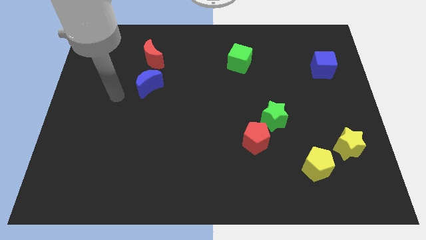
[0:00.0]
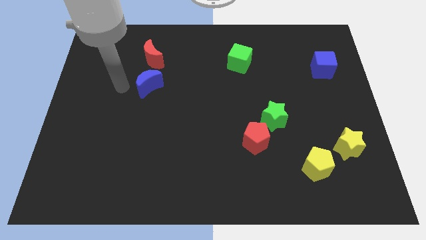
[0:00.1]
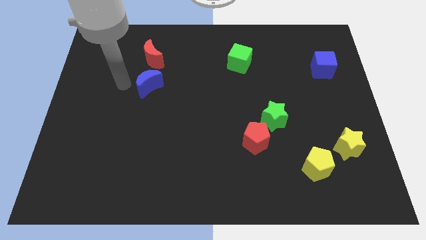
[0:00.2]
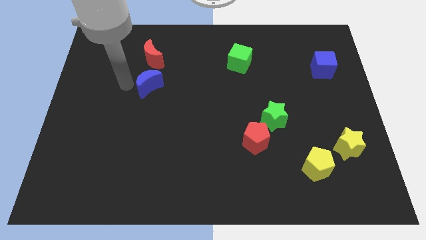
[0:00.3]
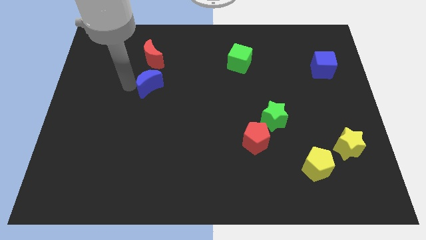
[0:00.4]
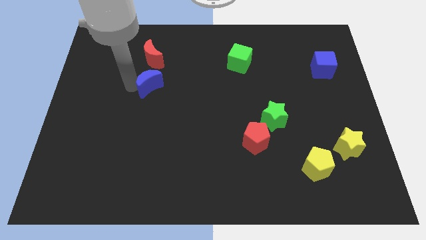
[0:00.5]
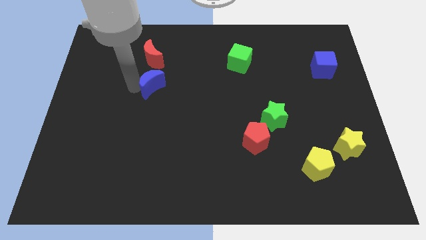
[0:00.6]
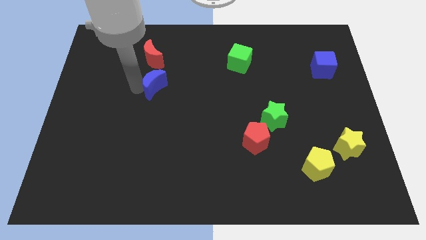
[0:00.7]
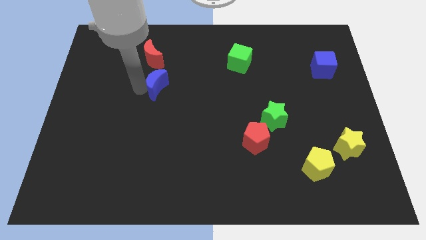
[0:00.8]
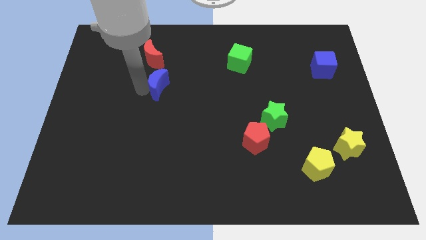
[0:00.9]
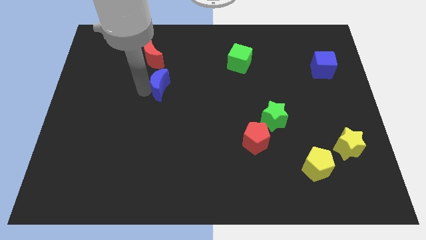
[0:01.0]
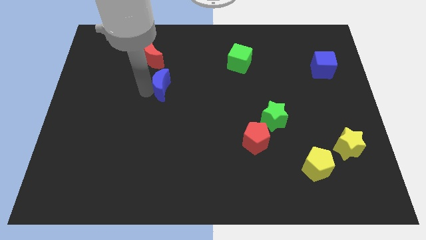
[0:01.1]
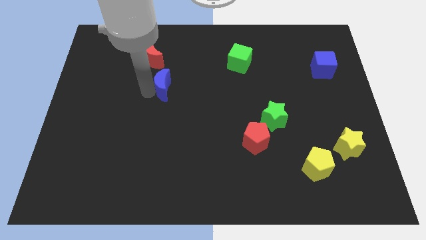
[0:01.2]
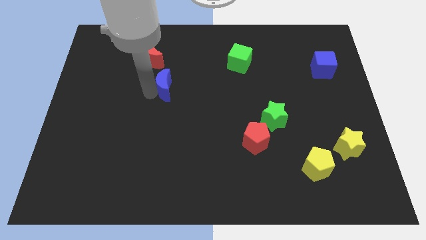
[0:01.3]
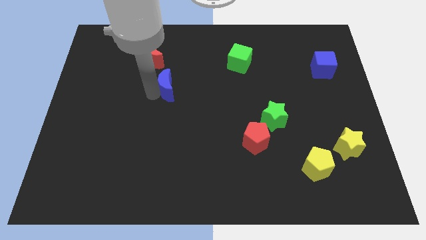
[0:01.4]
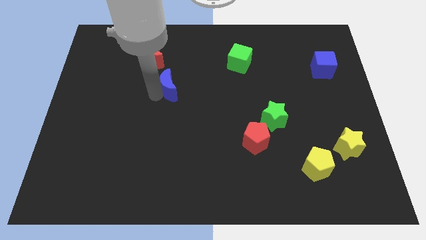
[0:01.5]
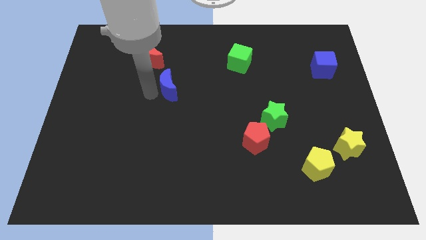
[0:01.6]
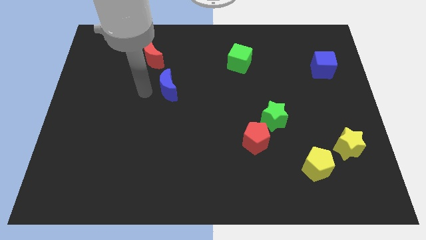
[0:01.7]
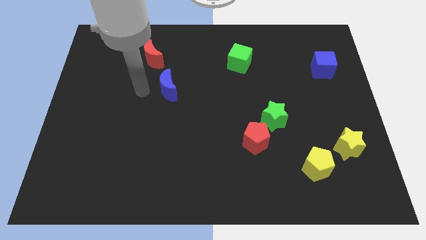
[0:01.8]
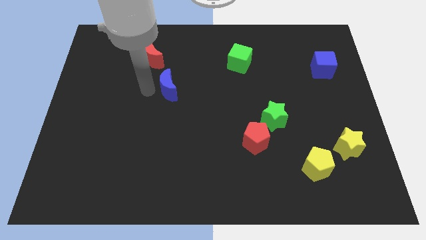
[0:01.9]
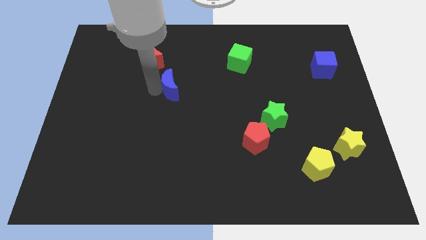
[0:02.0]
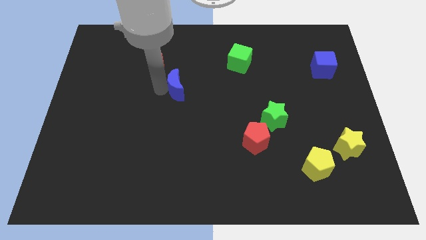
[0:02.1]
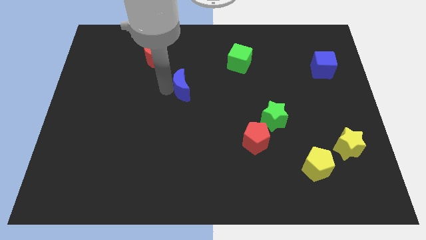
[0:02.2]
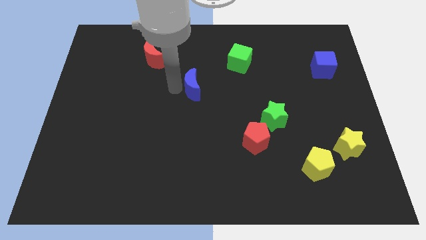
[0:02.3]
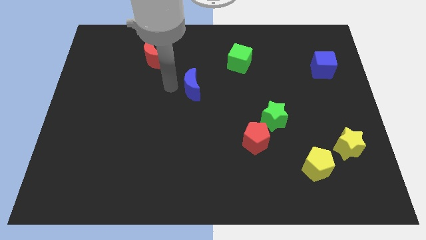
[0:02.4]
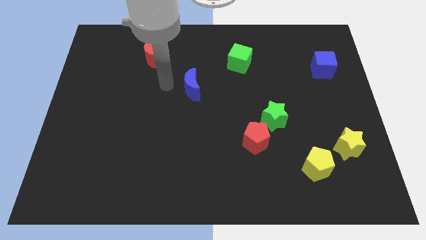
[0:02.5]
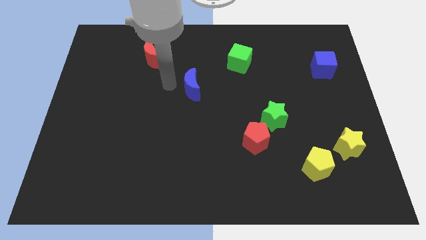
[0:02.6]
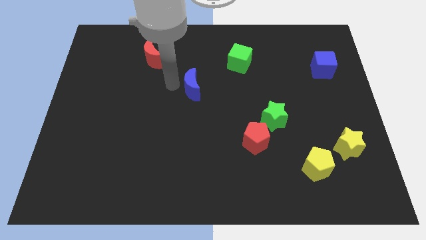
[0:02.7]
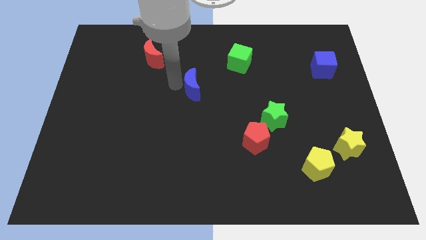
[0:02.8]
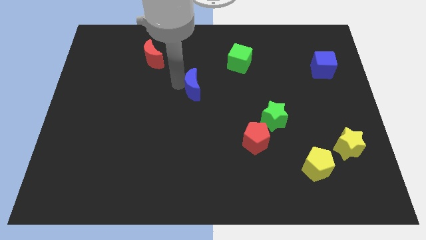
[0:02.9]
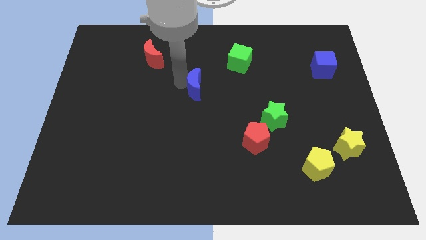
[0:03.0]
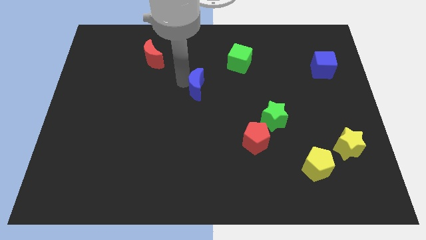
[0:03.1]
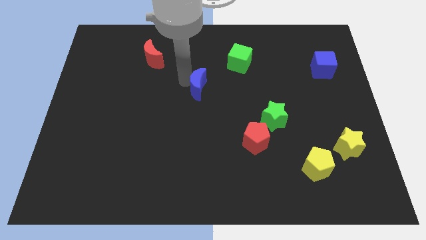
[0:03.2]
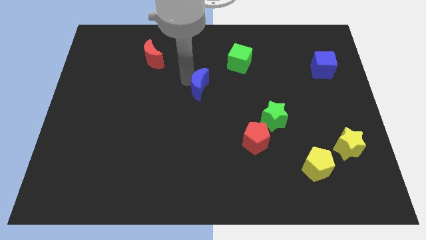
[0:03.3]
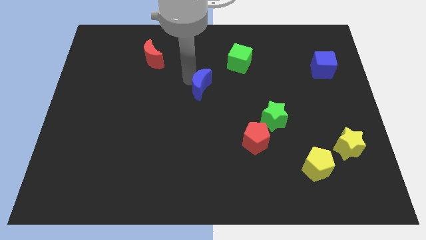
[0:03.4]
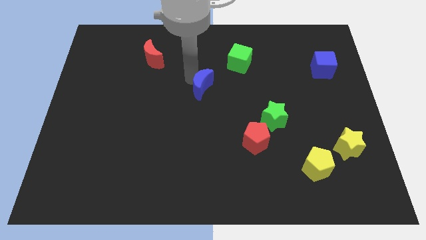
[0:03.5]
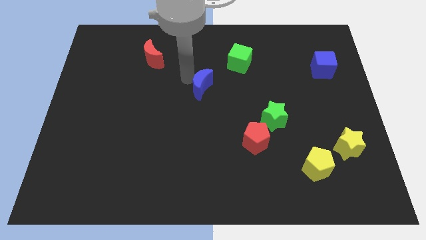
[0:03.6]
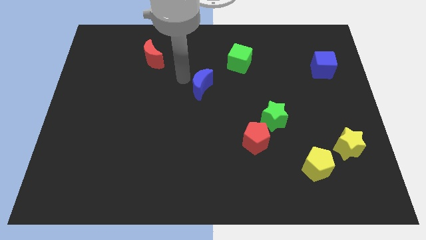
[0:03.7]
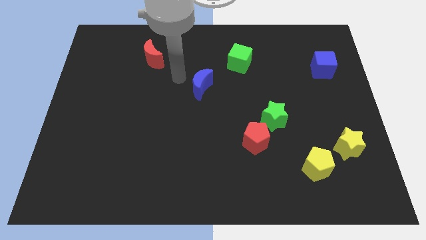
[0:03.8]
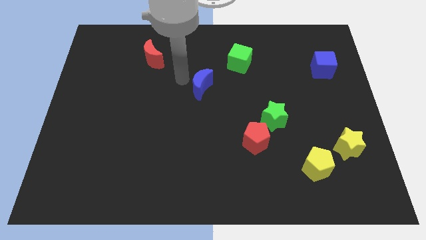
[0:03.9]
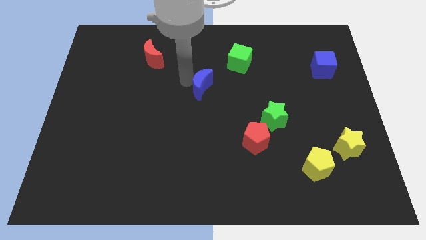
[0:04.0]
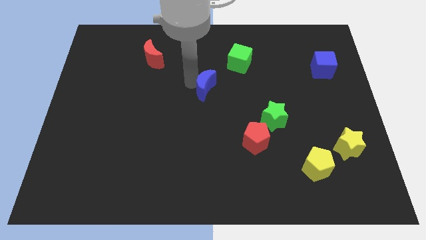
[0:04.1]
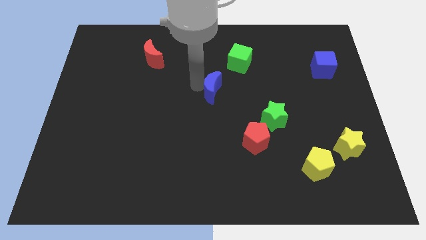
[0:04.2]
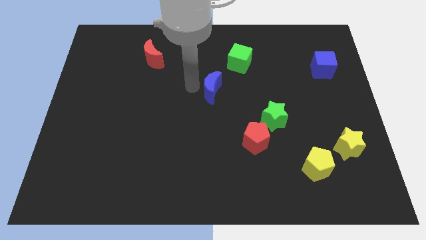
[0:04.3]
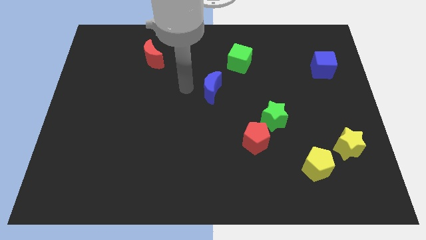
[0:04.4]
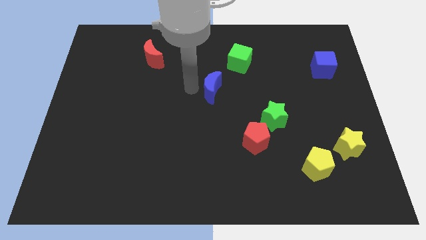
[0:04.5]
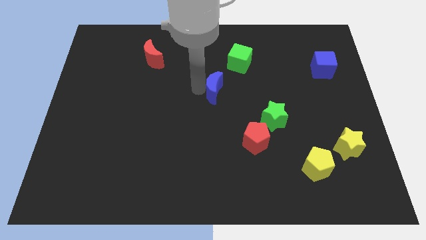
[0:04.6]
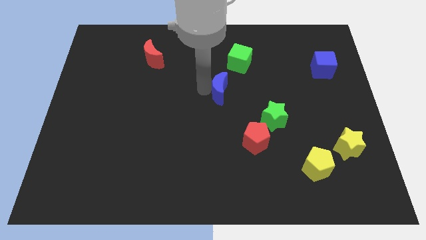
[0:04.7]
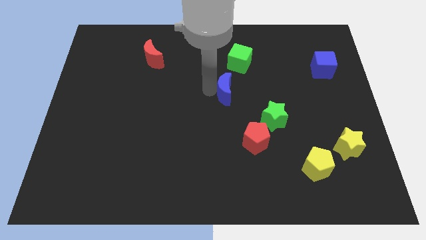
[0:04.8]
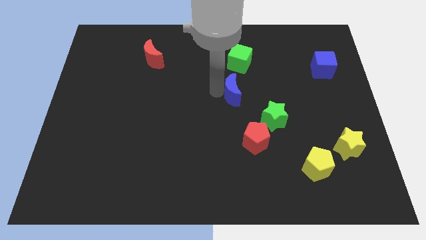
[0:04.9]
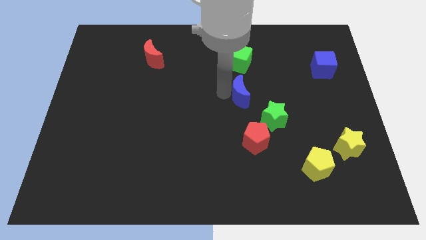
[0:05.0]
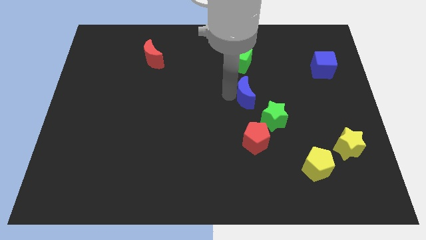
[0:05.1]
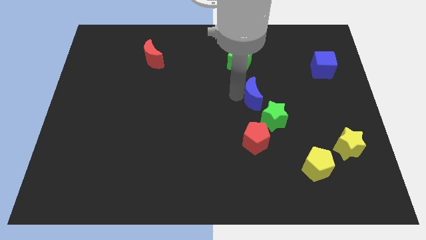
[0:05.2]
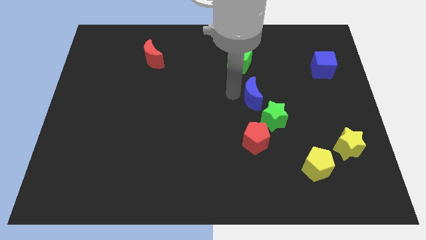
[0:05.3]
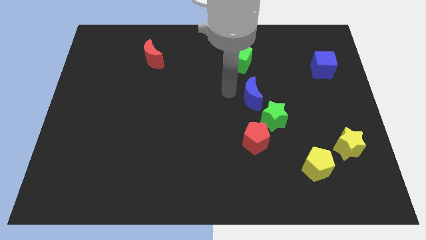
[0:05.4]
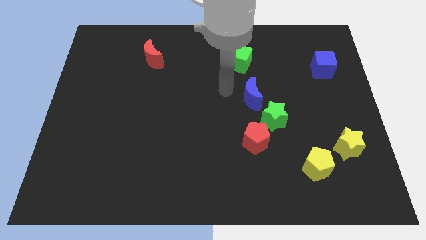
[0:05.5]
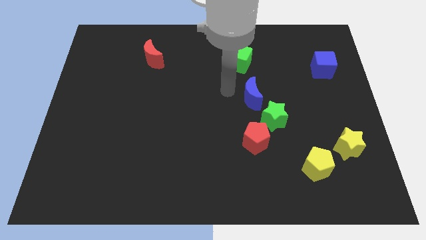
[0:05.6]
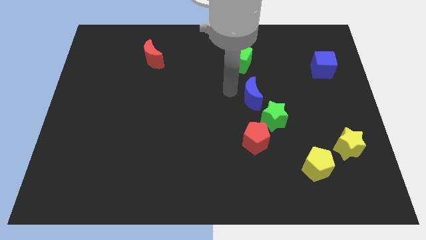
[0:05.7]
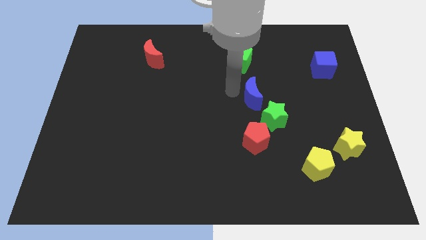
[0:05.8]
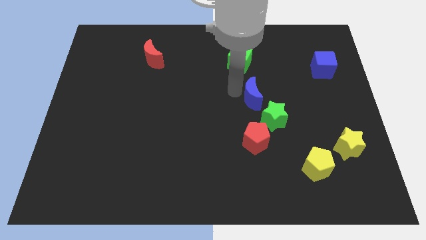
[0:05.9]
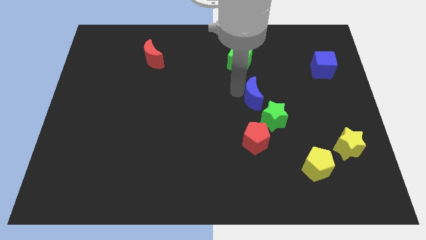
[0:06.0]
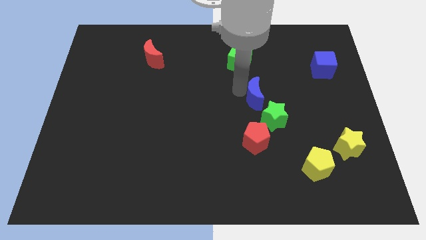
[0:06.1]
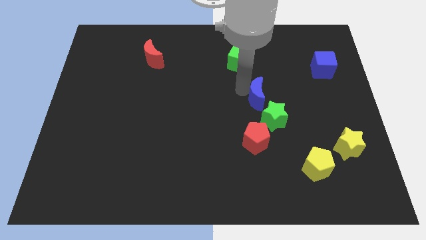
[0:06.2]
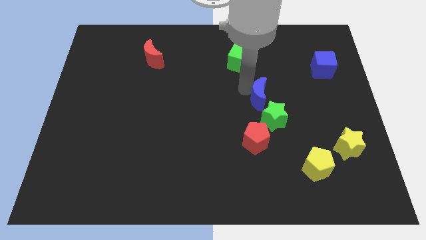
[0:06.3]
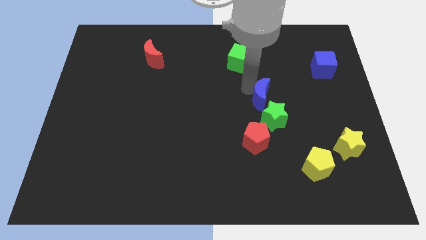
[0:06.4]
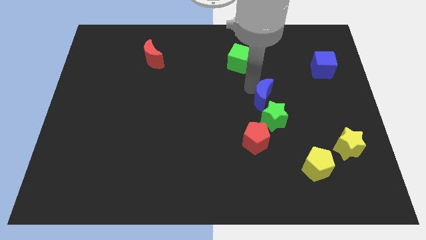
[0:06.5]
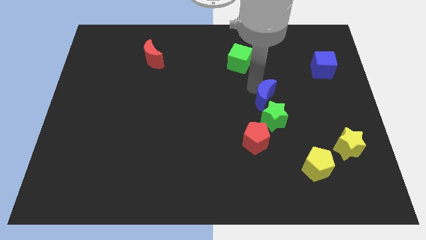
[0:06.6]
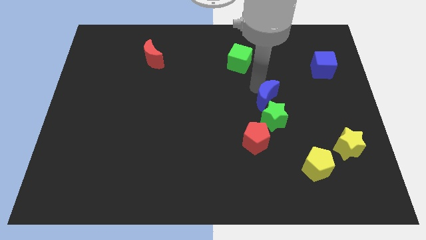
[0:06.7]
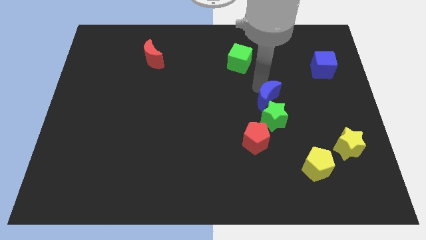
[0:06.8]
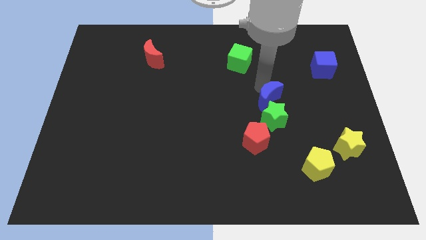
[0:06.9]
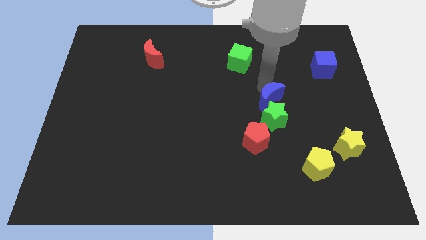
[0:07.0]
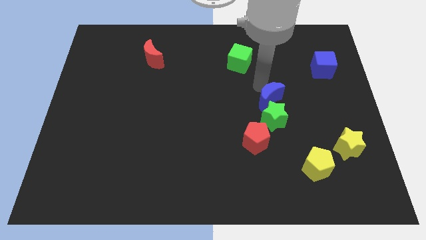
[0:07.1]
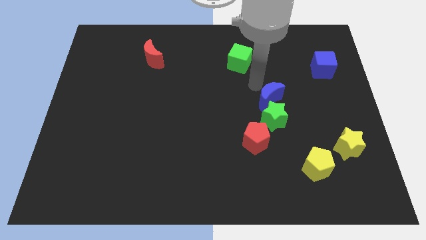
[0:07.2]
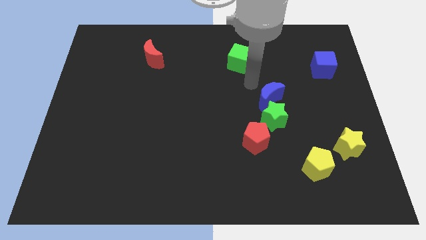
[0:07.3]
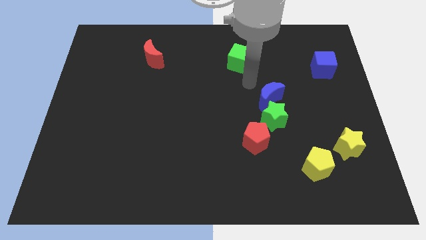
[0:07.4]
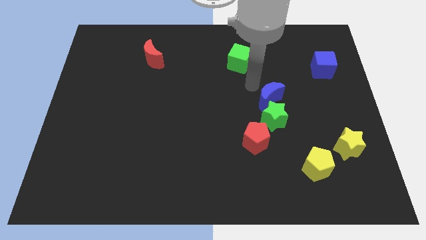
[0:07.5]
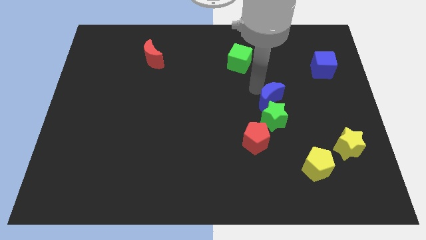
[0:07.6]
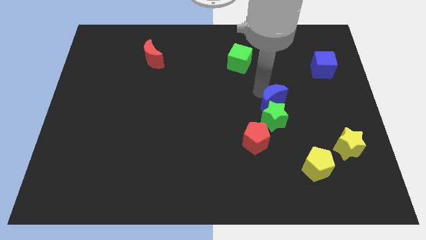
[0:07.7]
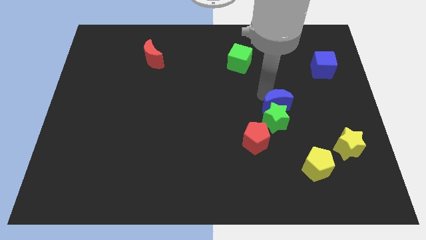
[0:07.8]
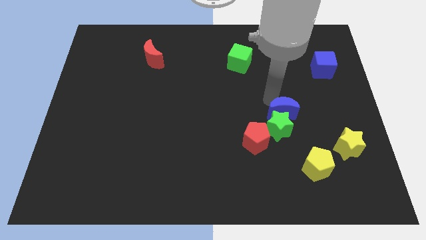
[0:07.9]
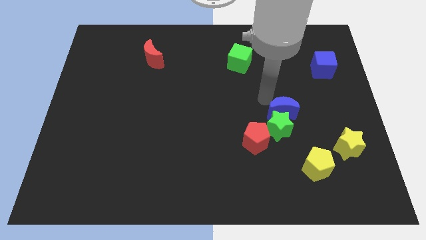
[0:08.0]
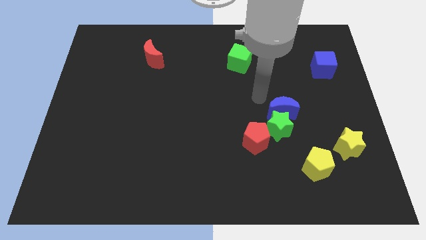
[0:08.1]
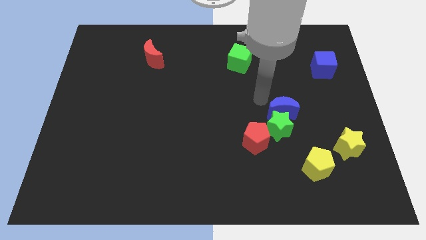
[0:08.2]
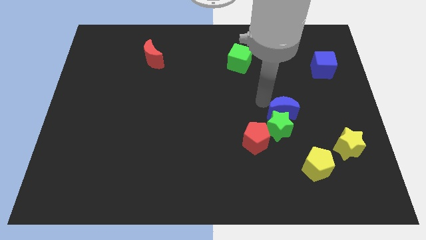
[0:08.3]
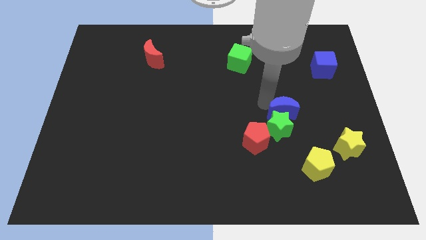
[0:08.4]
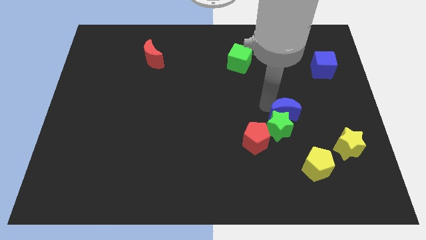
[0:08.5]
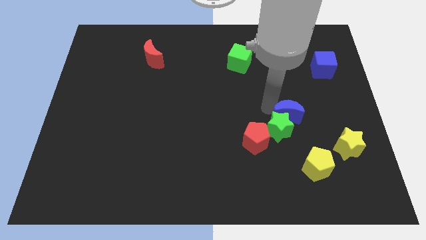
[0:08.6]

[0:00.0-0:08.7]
put the blue moon to the top of the yellow pentagon
